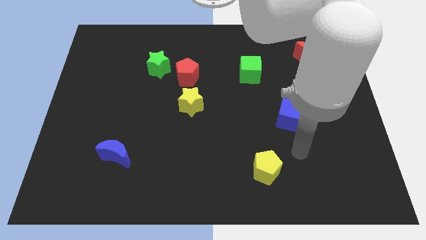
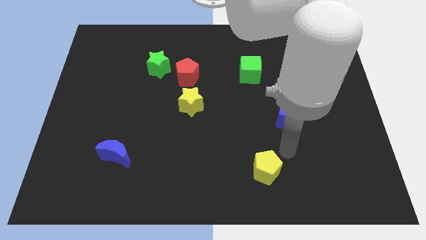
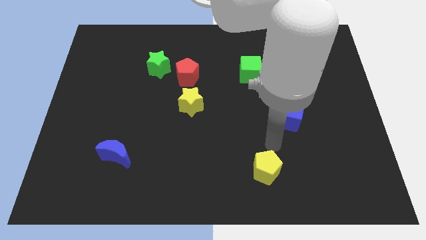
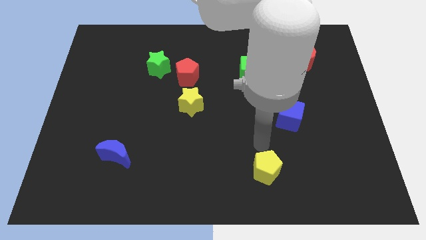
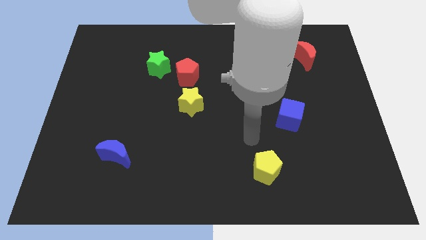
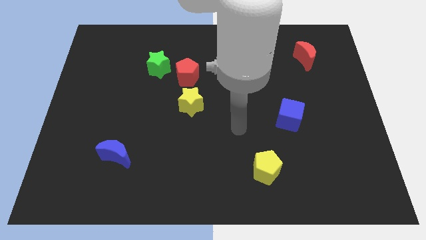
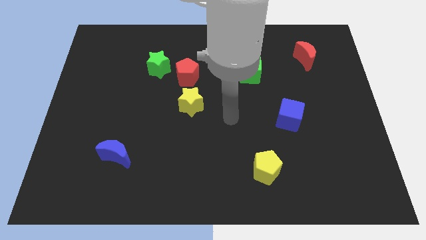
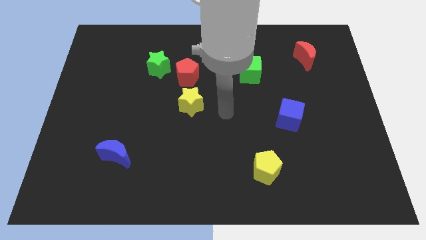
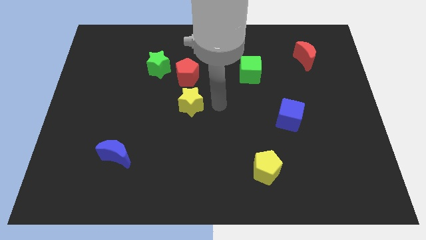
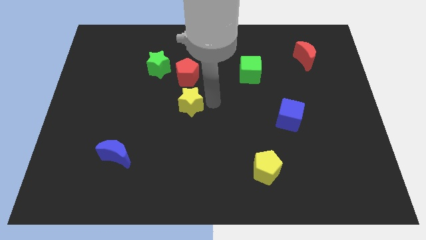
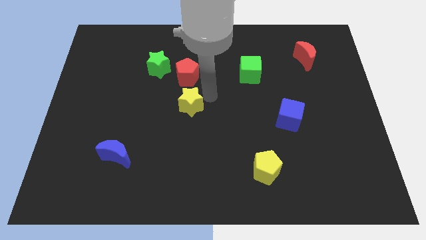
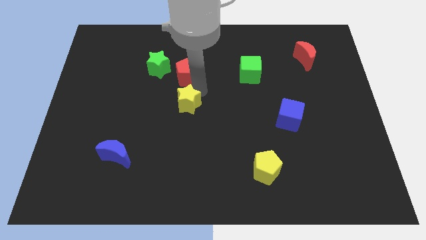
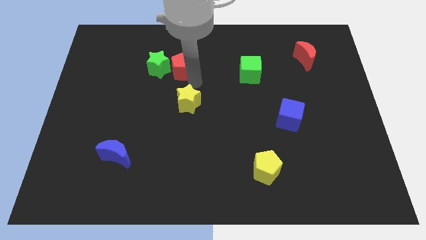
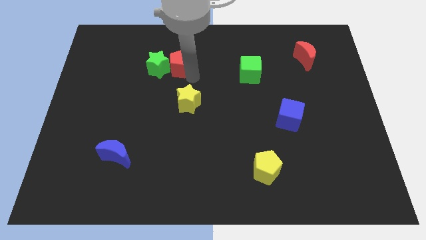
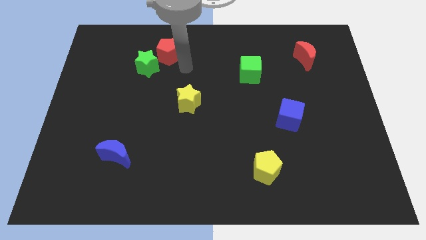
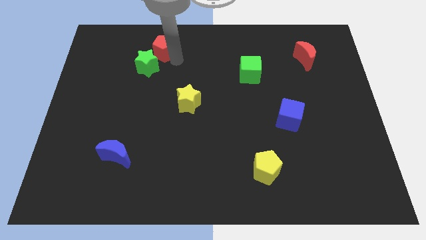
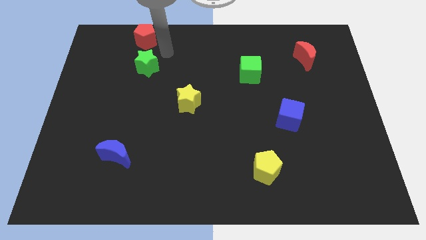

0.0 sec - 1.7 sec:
pull the green star apart from the red pentagon

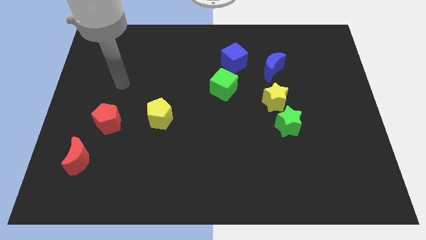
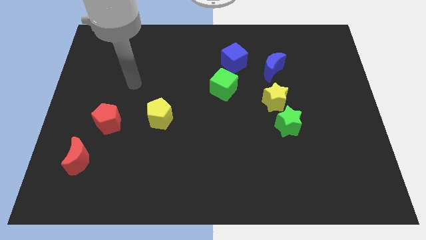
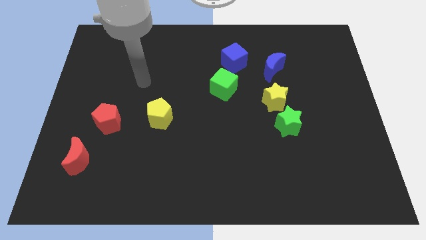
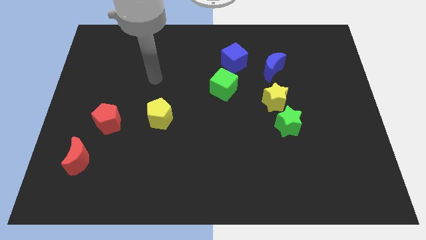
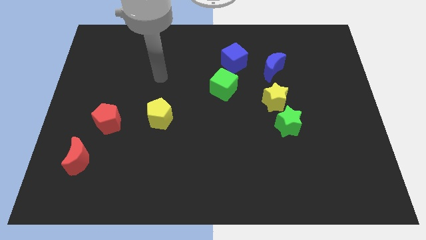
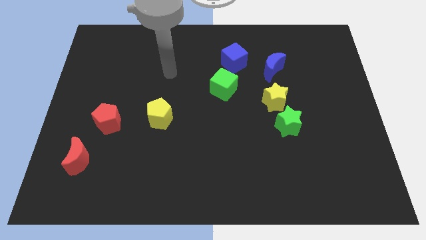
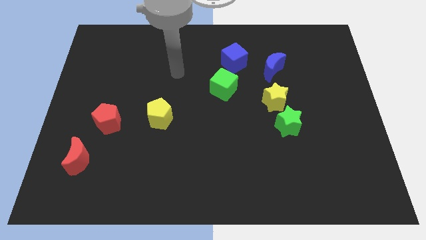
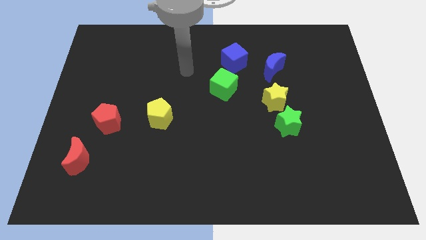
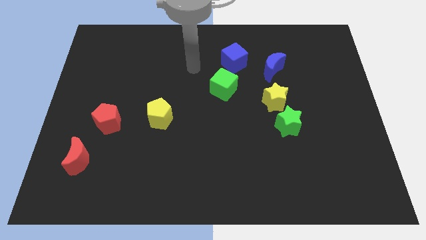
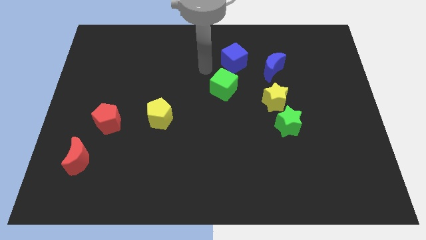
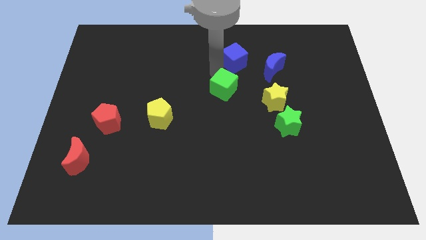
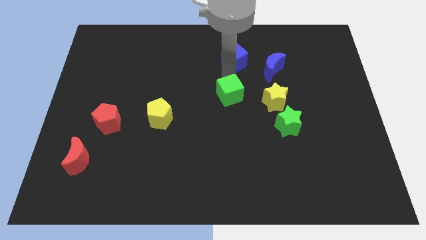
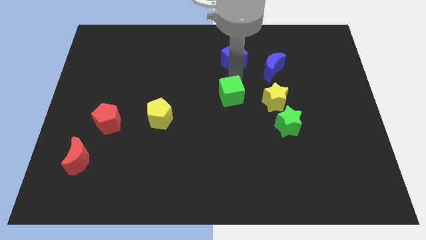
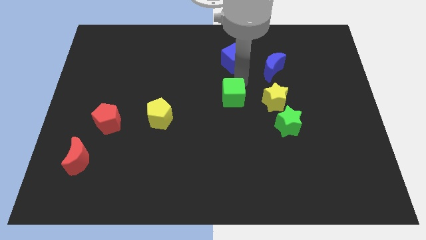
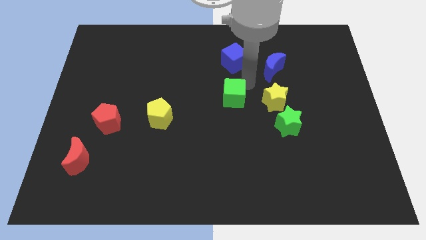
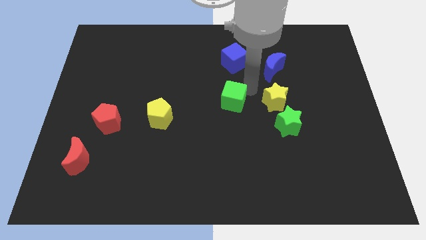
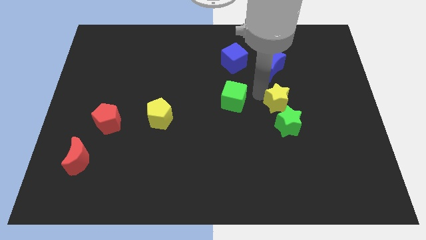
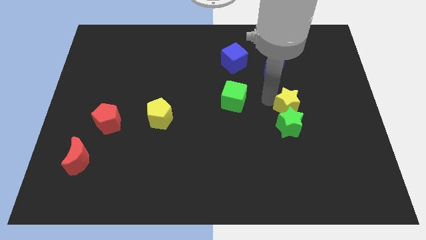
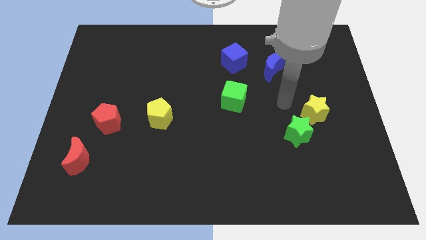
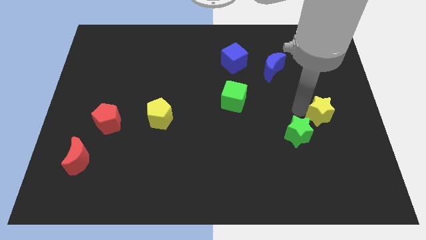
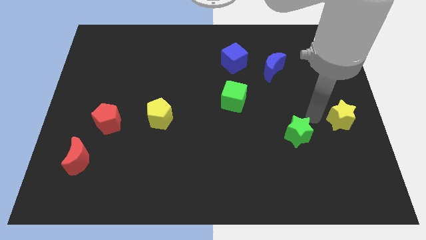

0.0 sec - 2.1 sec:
pull the green star apart from the yellow star

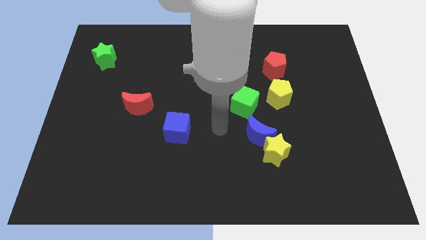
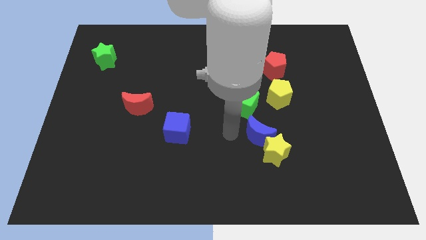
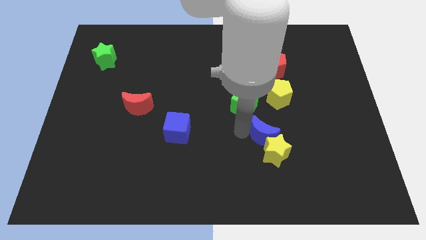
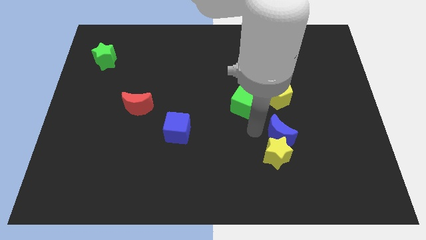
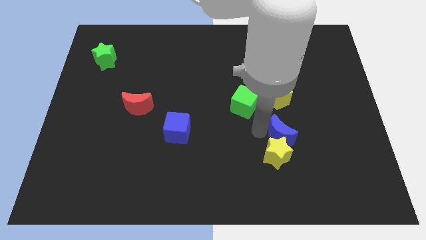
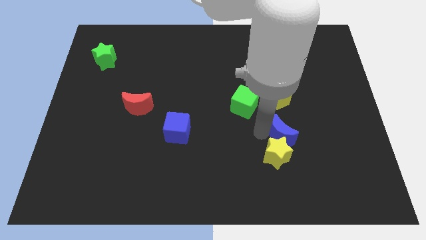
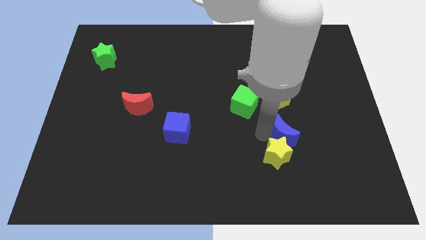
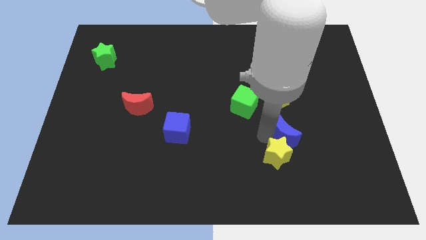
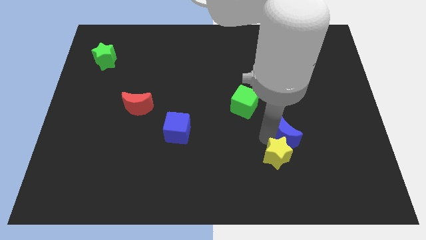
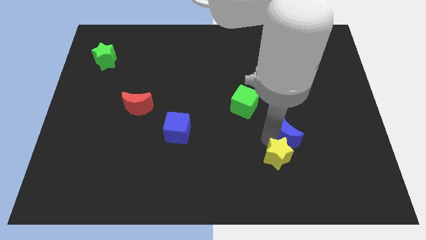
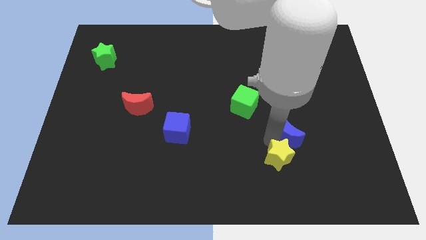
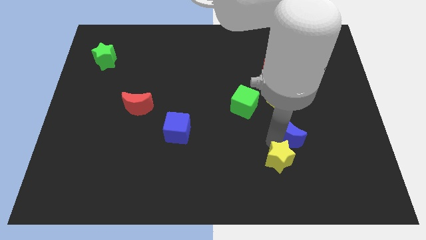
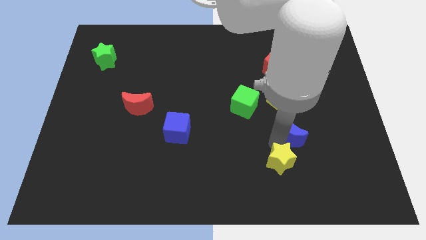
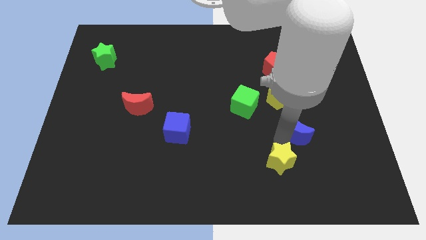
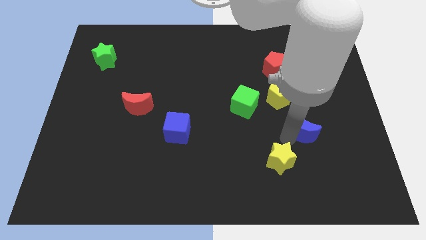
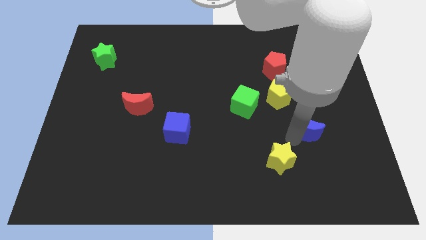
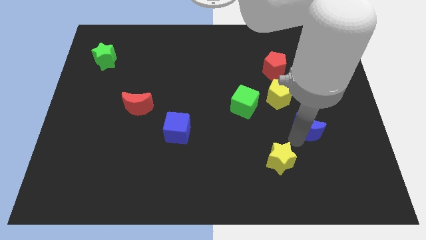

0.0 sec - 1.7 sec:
move the yellow star away from the blue moon

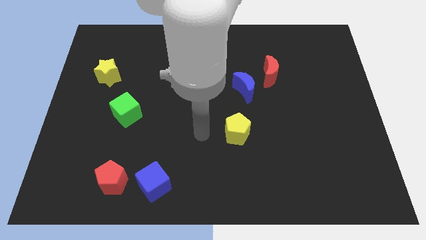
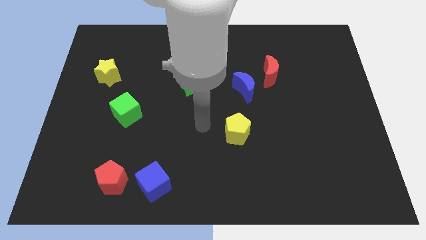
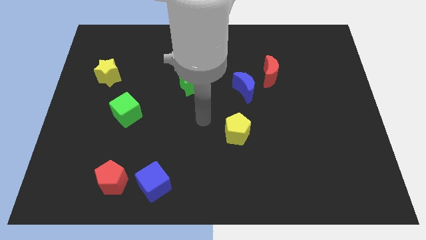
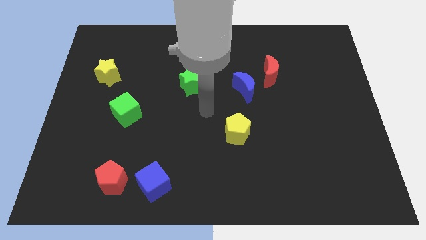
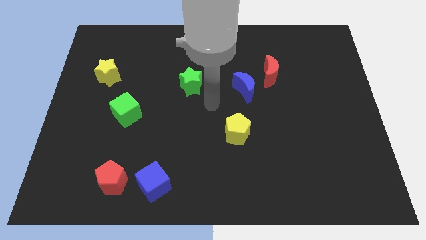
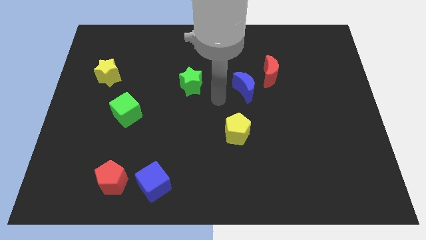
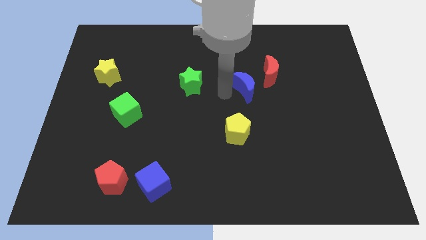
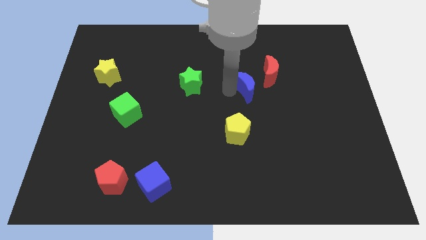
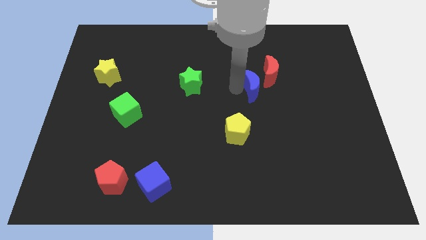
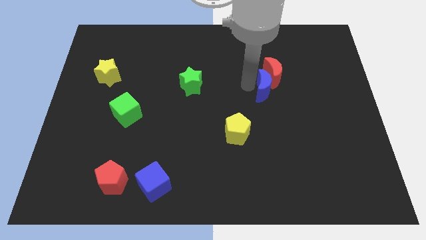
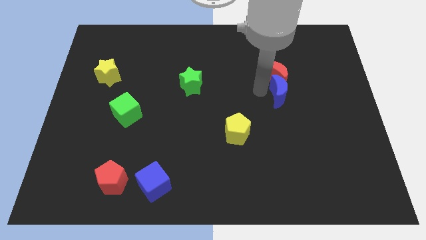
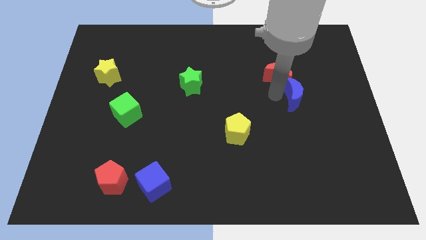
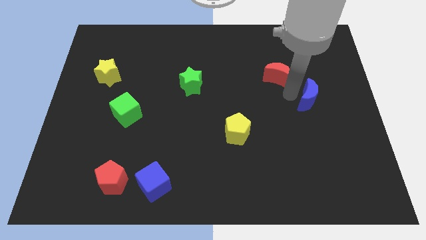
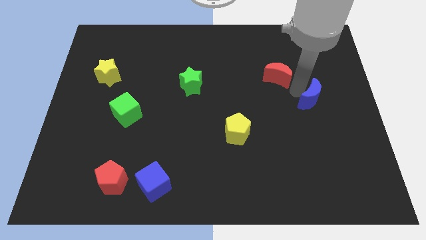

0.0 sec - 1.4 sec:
pull the red moon apart from the blue moon

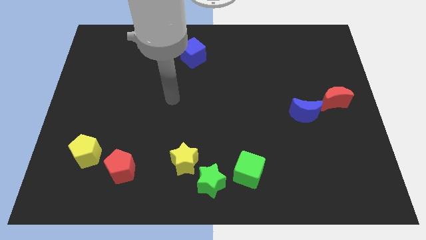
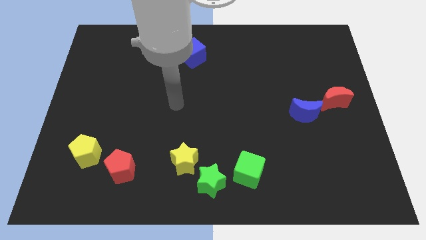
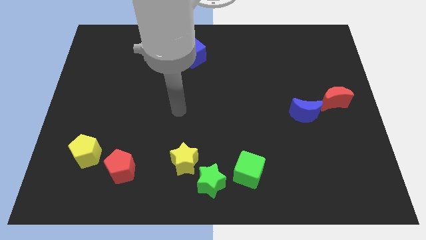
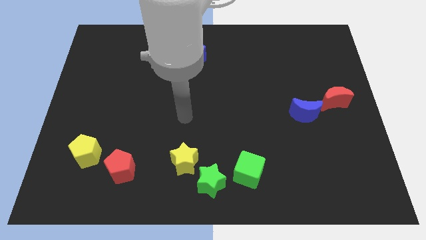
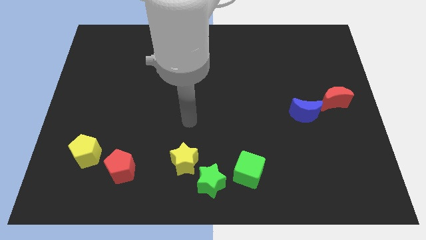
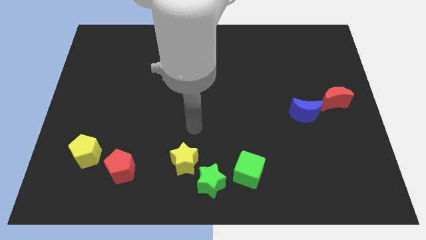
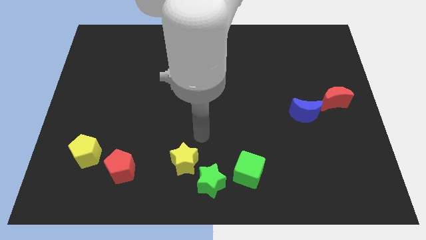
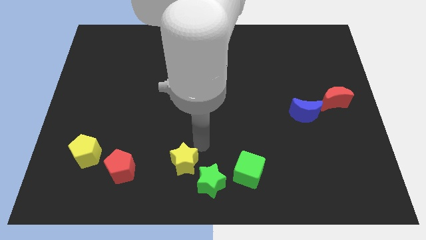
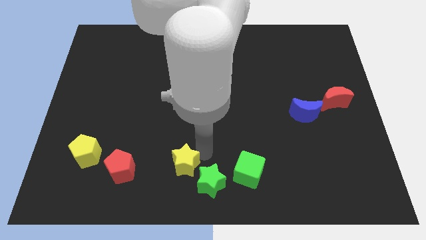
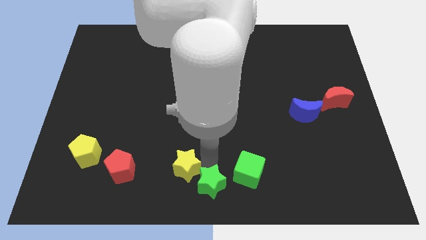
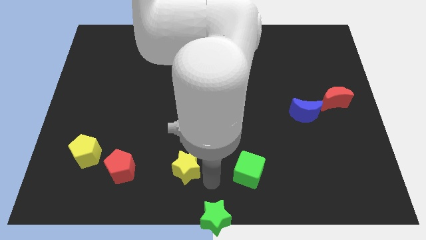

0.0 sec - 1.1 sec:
separate the yellow star from the green star

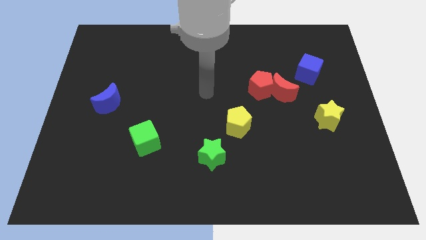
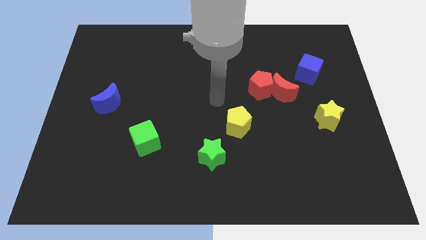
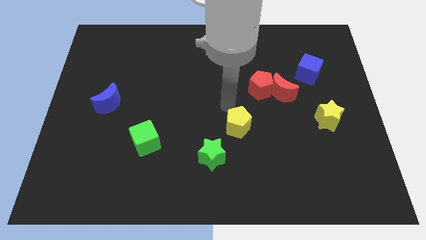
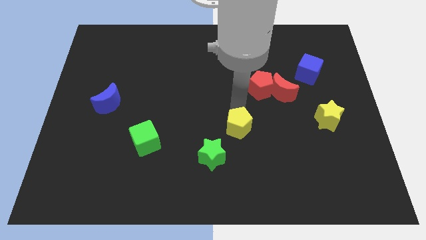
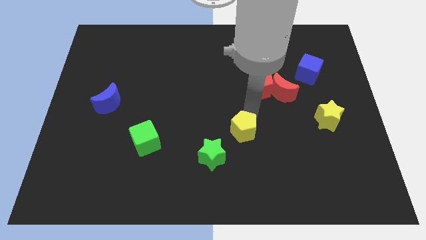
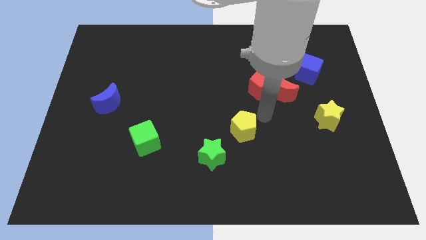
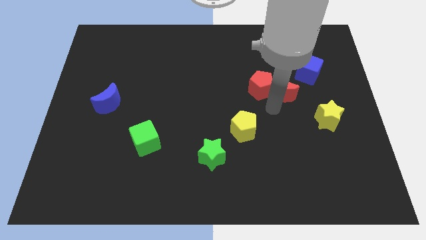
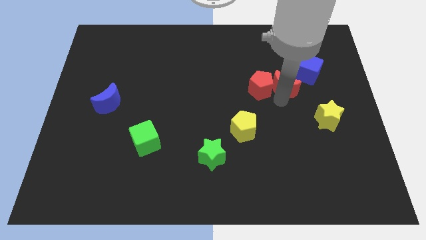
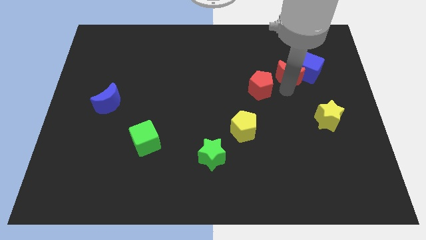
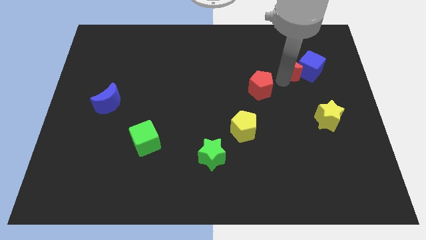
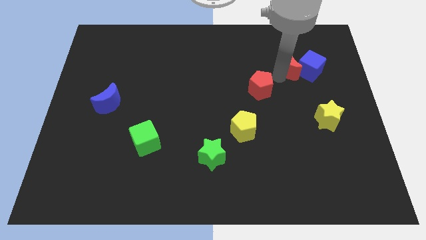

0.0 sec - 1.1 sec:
separate the red pentagon from the red moon

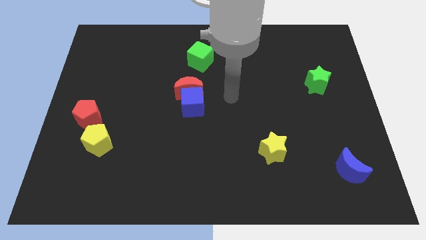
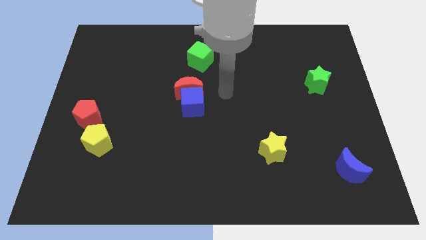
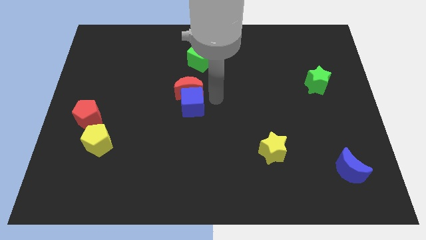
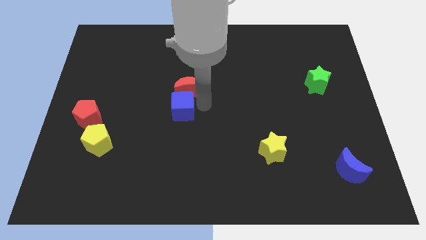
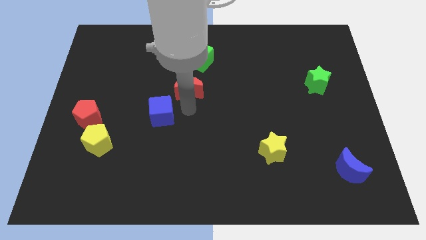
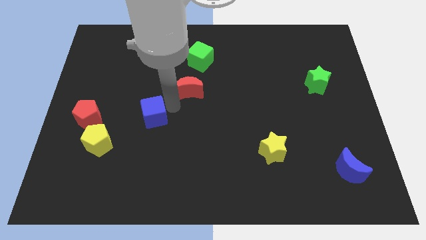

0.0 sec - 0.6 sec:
move the red moon away from the blue cube
